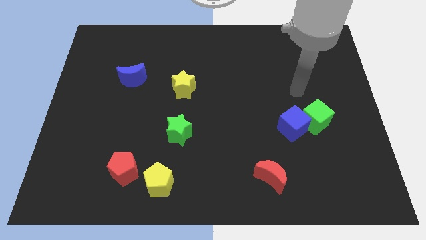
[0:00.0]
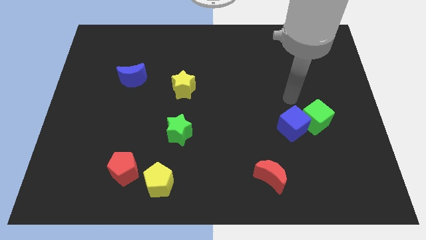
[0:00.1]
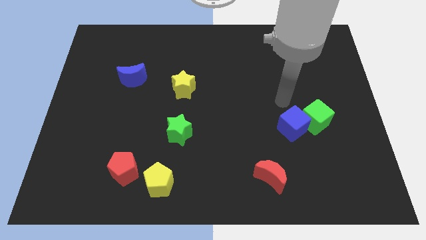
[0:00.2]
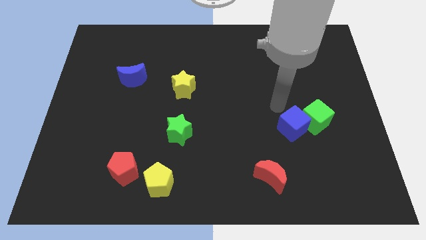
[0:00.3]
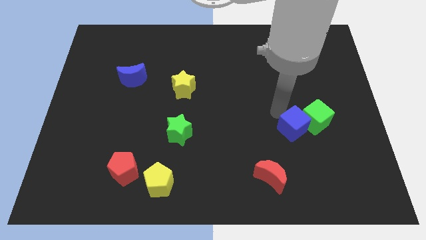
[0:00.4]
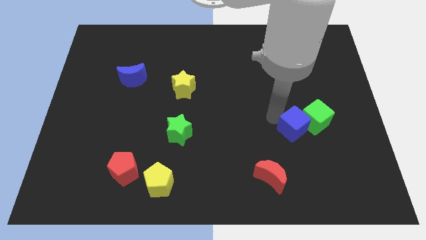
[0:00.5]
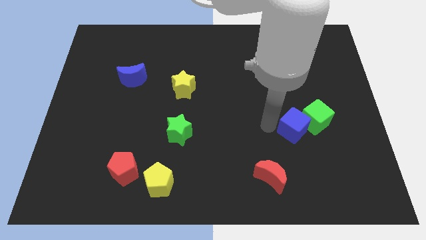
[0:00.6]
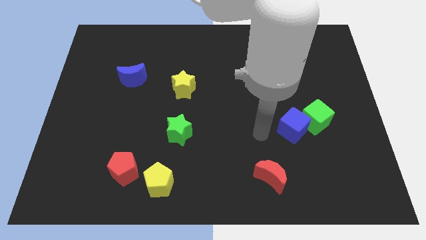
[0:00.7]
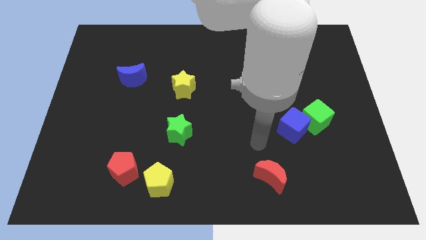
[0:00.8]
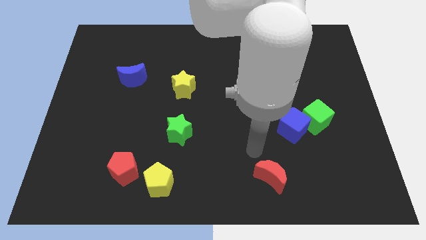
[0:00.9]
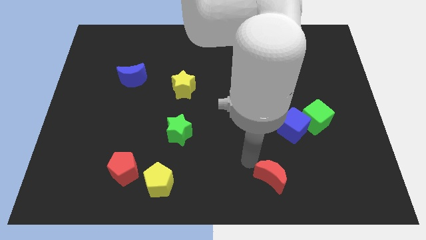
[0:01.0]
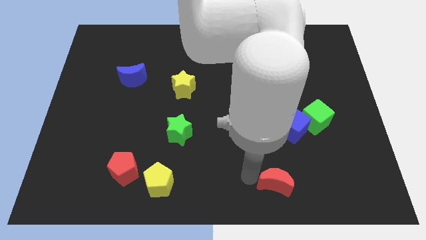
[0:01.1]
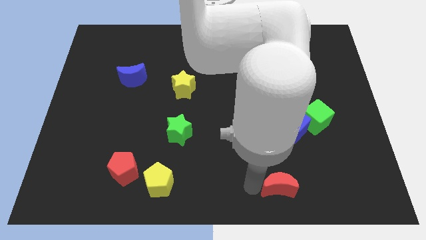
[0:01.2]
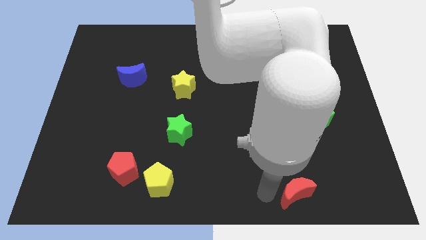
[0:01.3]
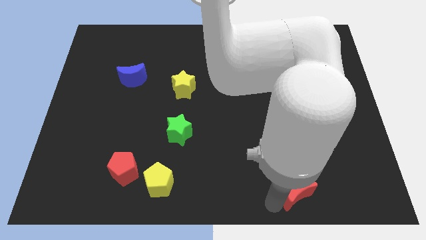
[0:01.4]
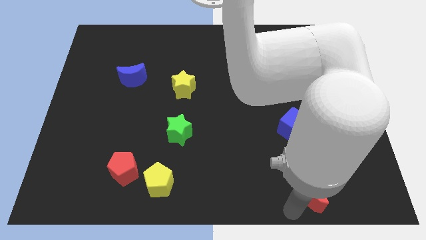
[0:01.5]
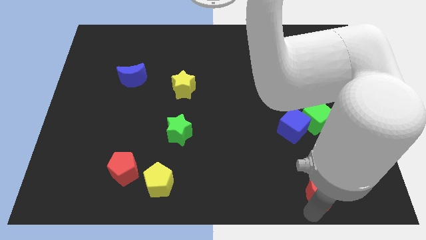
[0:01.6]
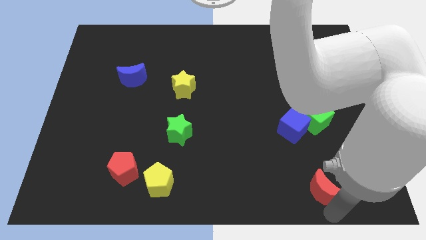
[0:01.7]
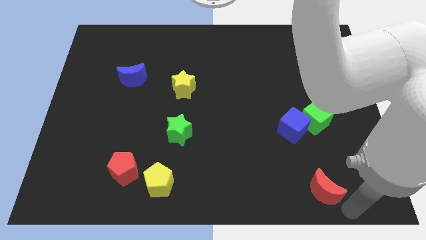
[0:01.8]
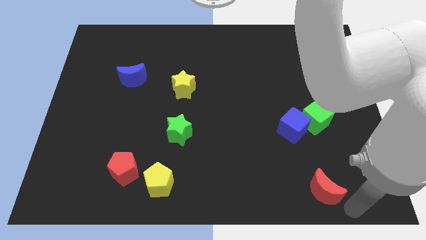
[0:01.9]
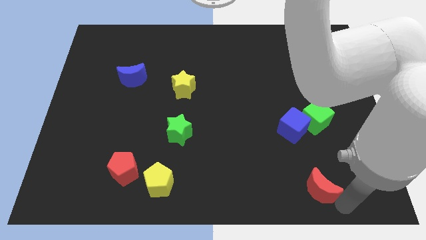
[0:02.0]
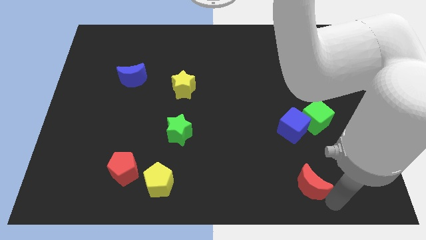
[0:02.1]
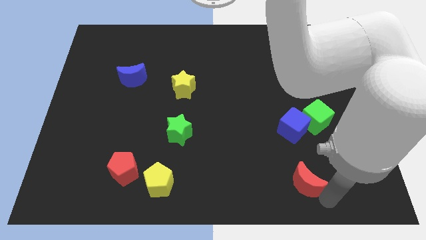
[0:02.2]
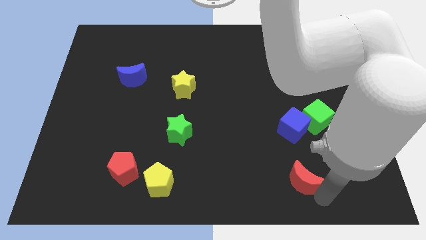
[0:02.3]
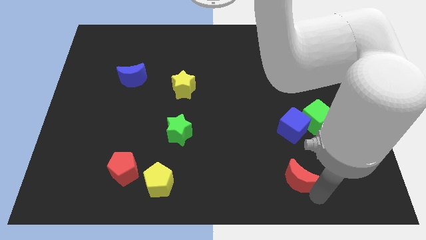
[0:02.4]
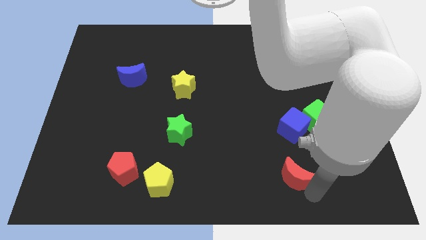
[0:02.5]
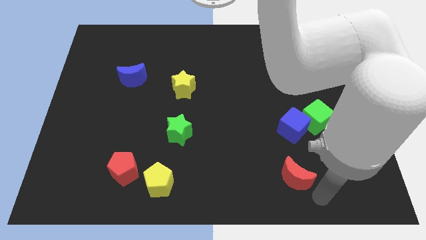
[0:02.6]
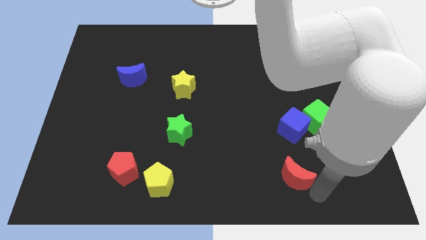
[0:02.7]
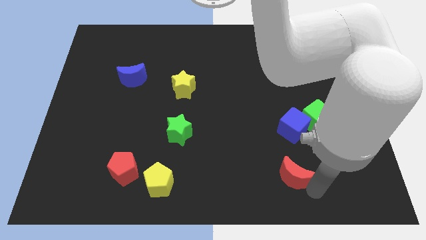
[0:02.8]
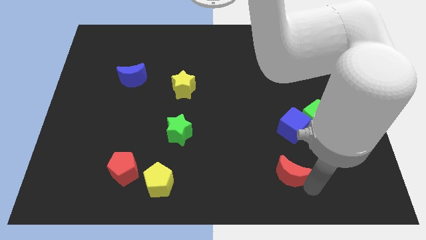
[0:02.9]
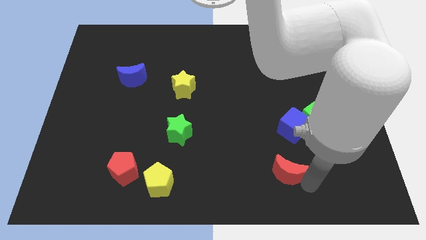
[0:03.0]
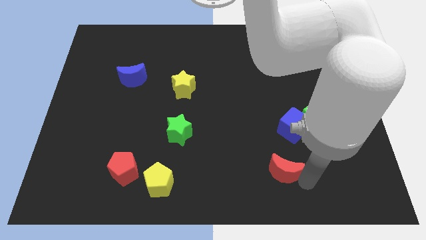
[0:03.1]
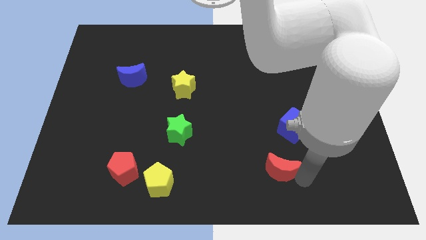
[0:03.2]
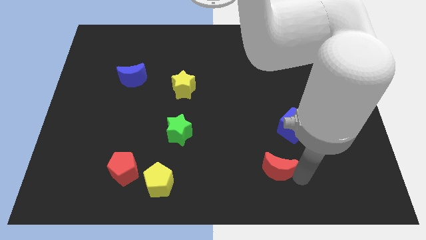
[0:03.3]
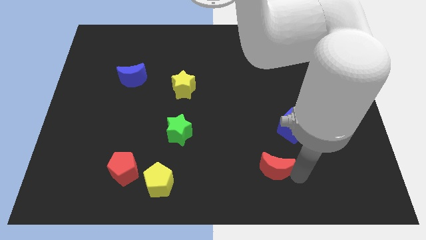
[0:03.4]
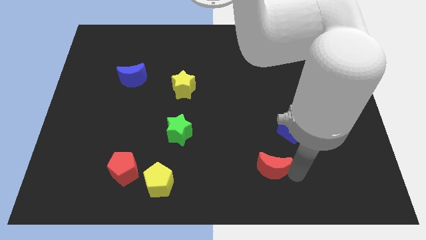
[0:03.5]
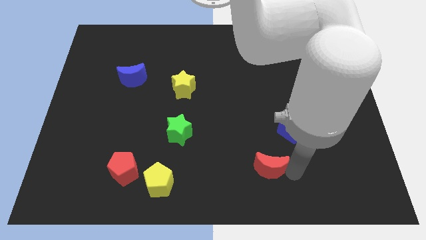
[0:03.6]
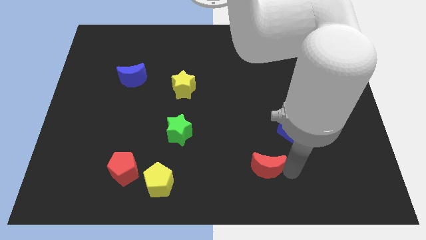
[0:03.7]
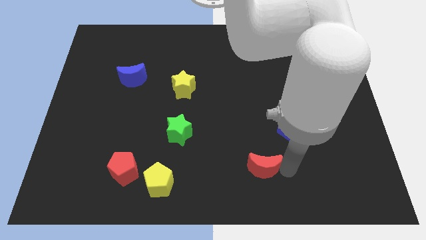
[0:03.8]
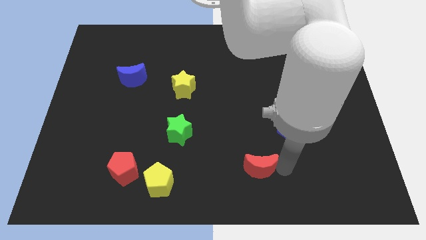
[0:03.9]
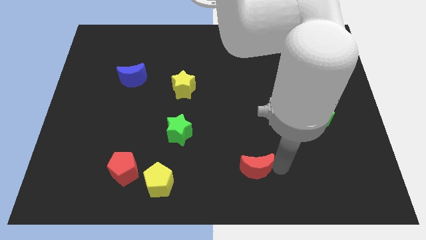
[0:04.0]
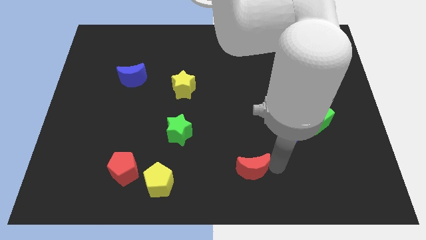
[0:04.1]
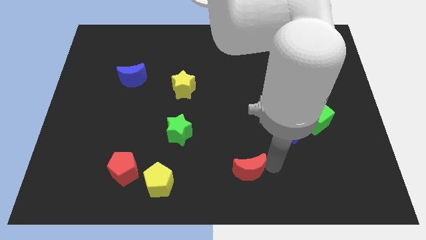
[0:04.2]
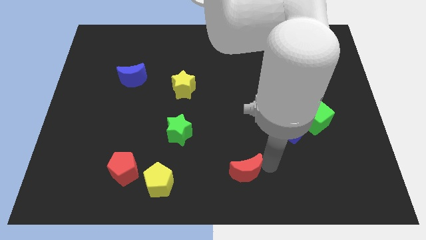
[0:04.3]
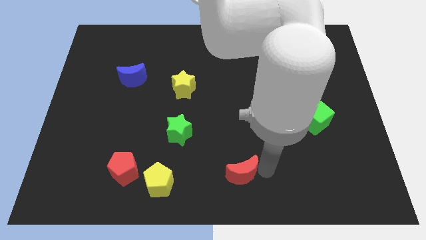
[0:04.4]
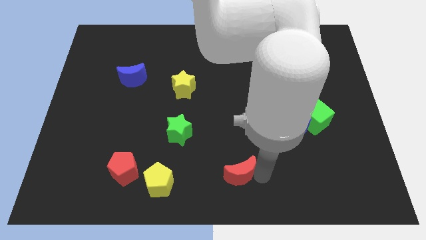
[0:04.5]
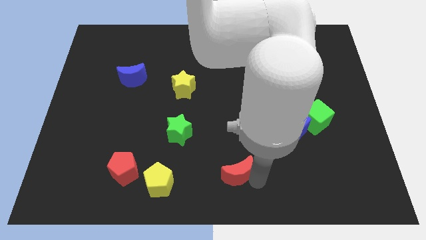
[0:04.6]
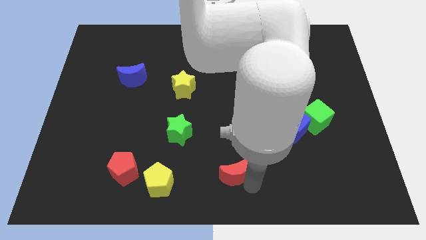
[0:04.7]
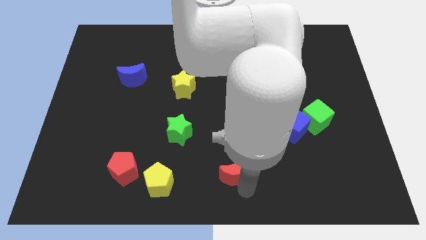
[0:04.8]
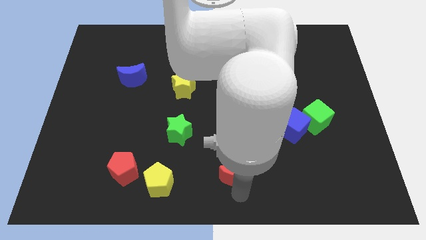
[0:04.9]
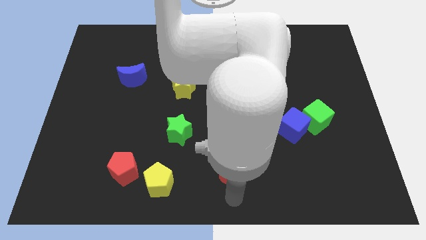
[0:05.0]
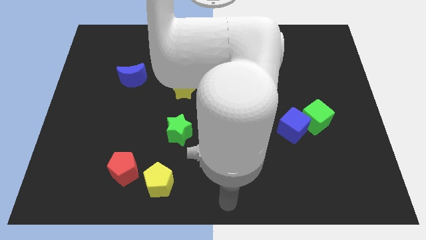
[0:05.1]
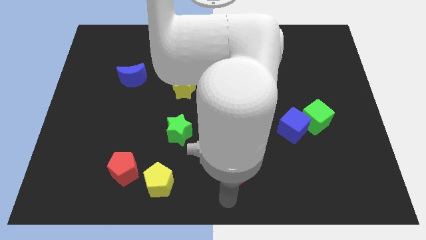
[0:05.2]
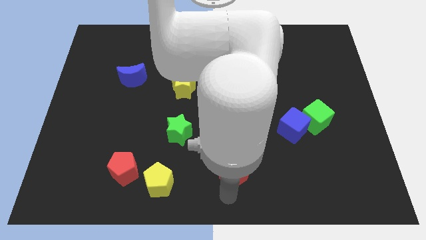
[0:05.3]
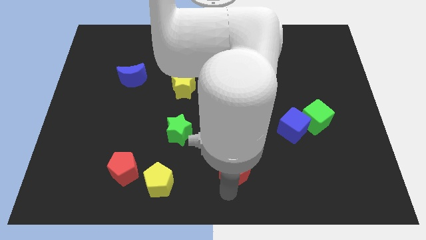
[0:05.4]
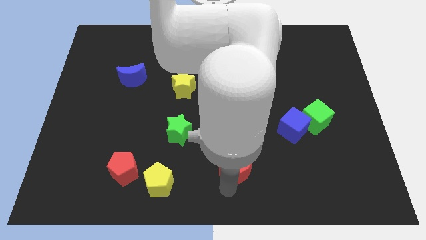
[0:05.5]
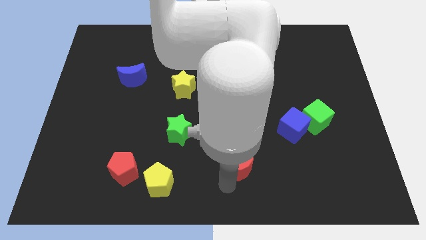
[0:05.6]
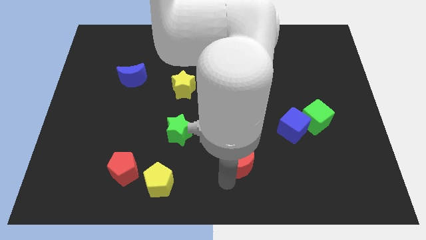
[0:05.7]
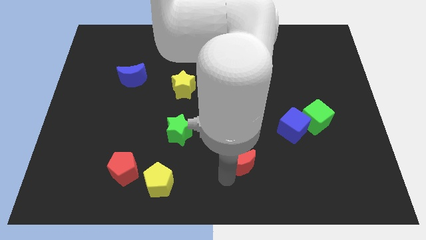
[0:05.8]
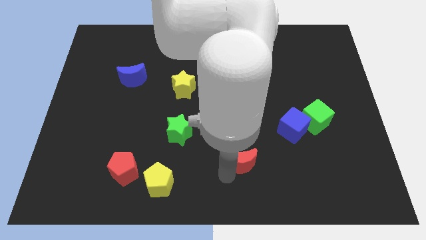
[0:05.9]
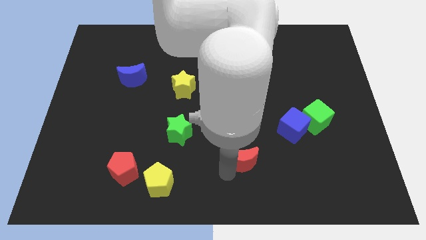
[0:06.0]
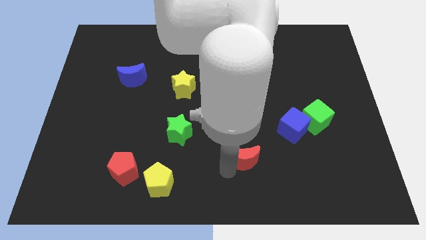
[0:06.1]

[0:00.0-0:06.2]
slide the red moon somewhat upwards and left

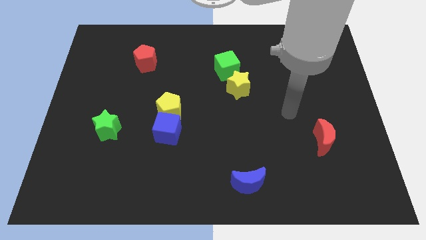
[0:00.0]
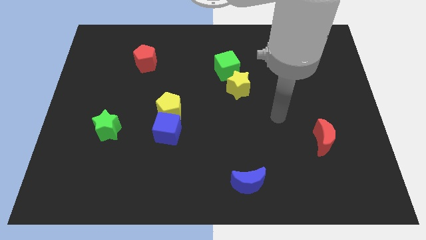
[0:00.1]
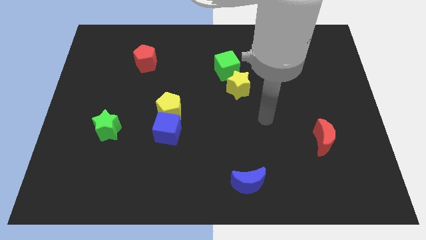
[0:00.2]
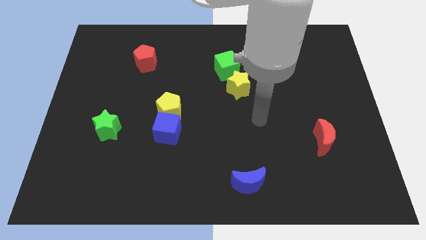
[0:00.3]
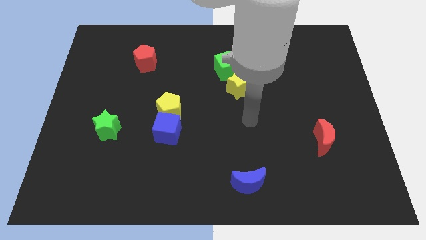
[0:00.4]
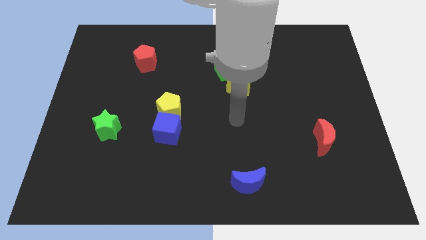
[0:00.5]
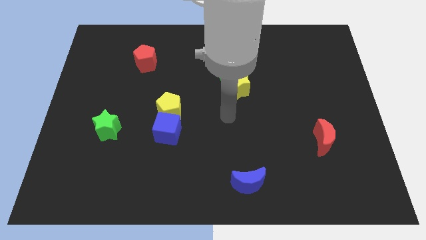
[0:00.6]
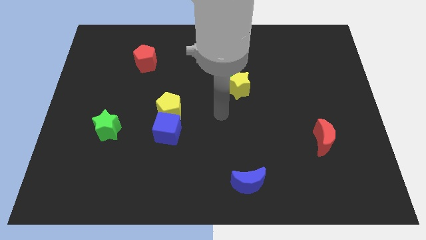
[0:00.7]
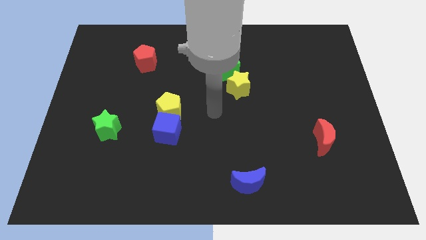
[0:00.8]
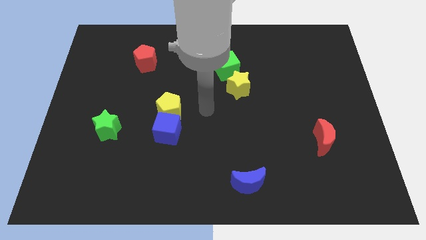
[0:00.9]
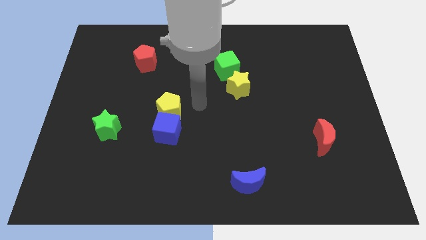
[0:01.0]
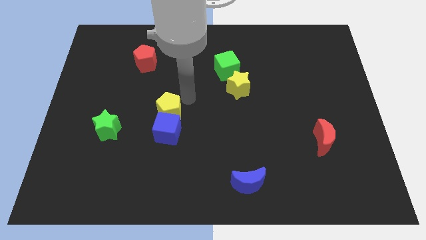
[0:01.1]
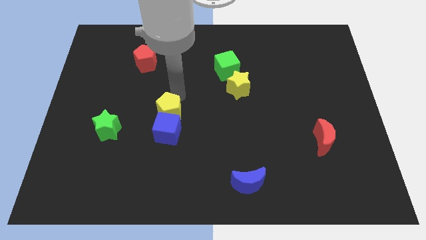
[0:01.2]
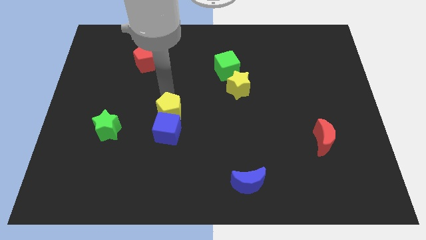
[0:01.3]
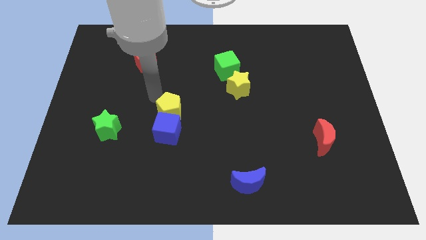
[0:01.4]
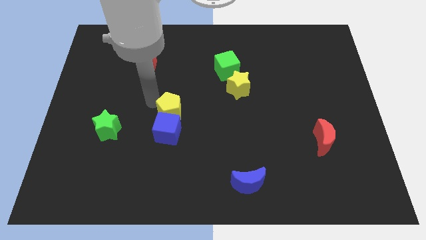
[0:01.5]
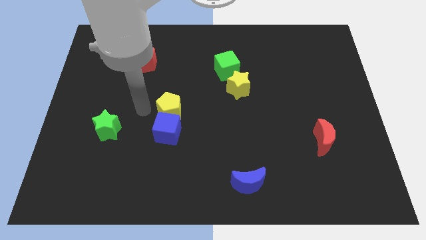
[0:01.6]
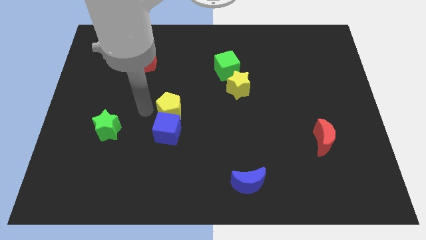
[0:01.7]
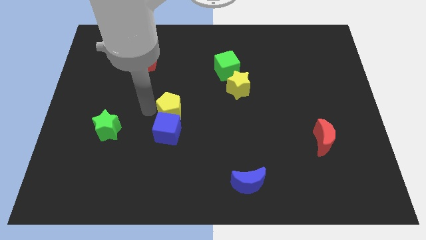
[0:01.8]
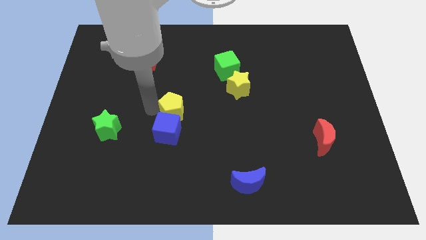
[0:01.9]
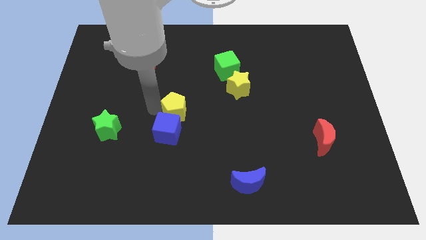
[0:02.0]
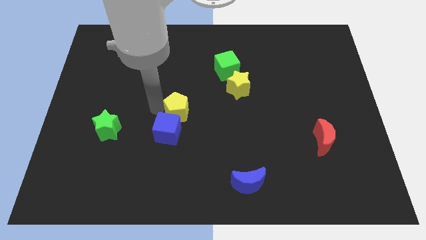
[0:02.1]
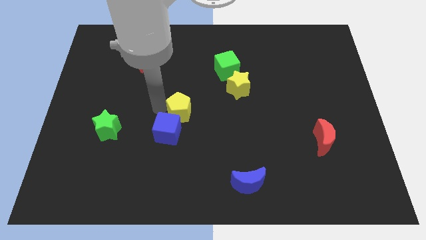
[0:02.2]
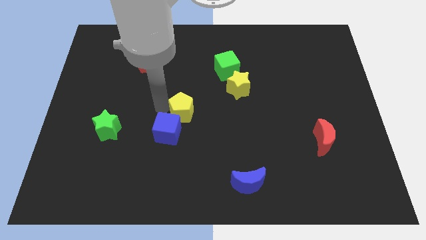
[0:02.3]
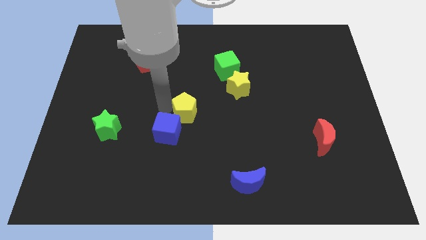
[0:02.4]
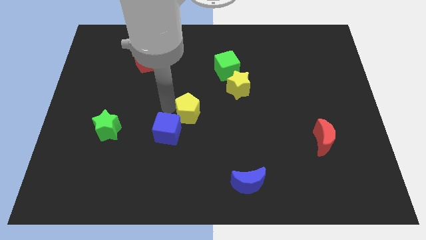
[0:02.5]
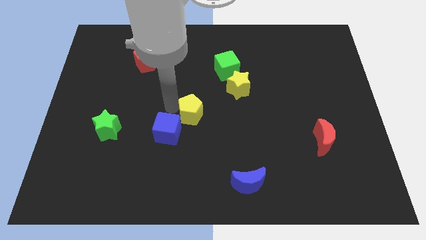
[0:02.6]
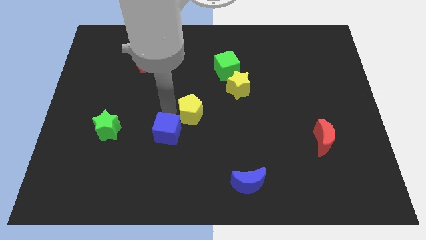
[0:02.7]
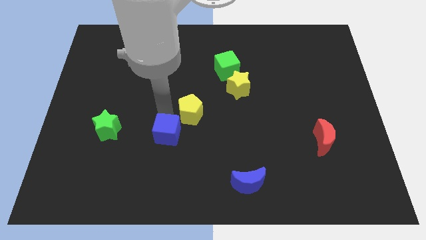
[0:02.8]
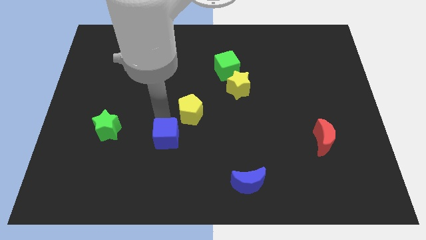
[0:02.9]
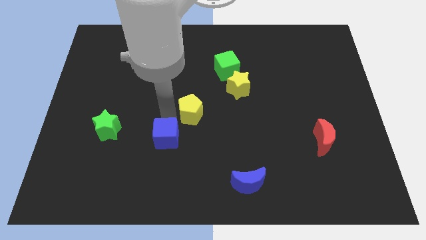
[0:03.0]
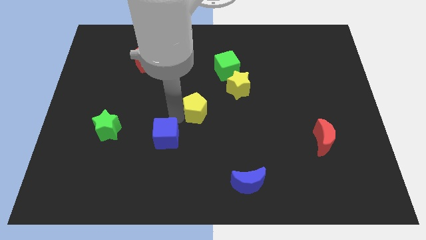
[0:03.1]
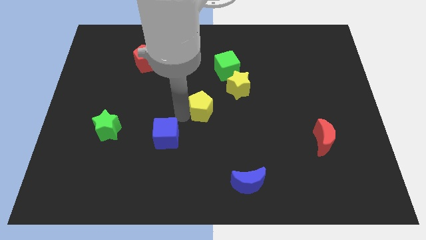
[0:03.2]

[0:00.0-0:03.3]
slightly move the yellow pentagon right
